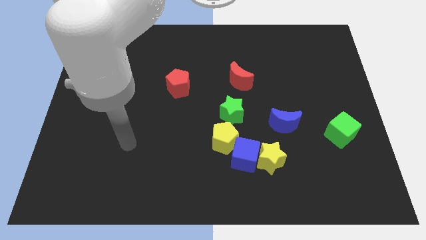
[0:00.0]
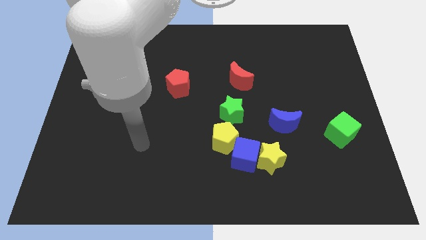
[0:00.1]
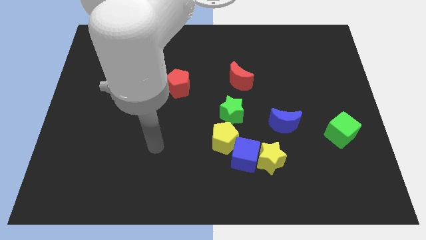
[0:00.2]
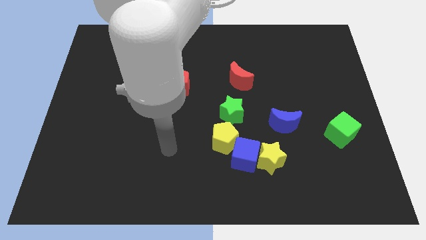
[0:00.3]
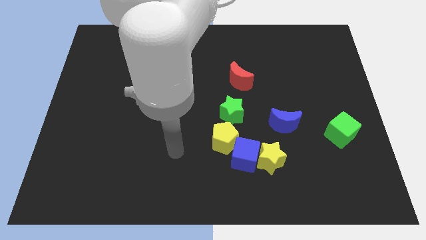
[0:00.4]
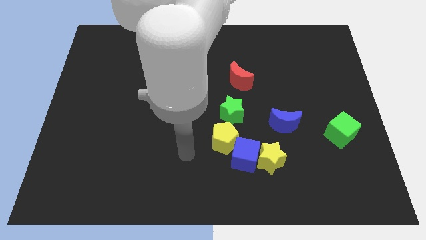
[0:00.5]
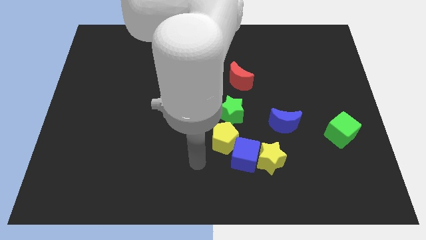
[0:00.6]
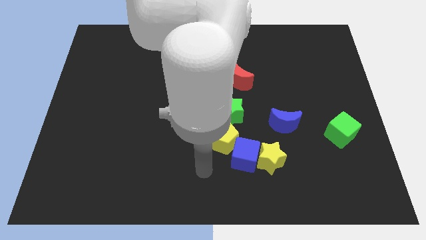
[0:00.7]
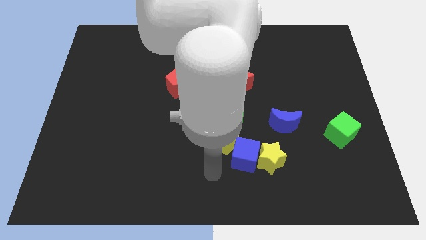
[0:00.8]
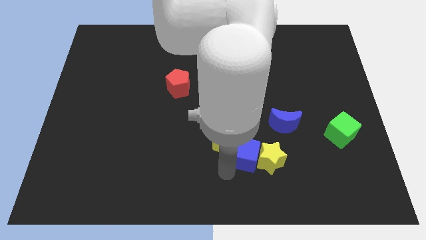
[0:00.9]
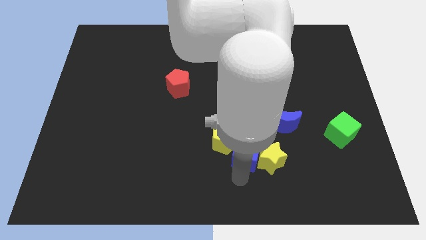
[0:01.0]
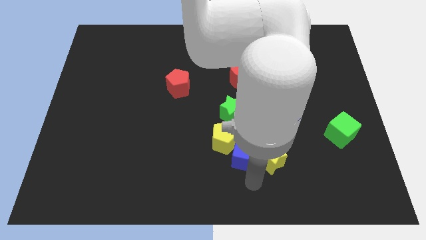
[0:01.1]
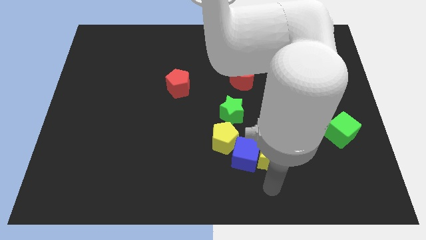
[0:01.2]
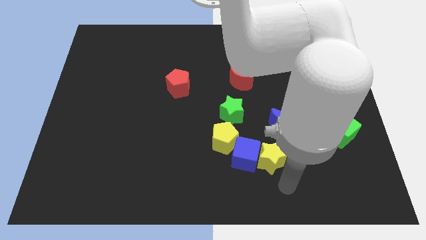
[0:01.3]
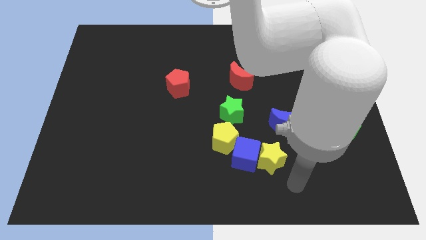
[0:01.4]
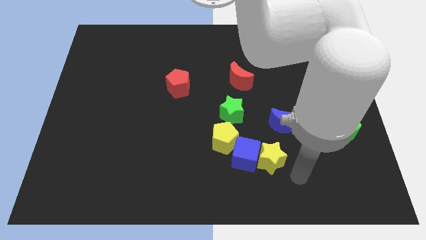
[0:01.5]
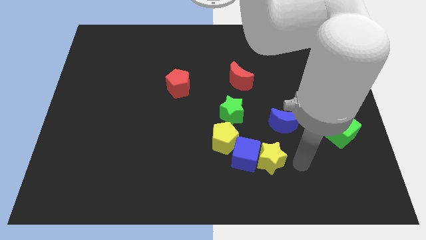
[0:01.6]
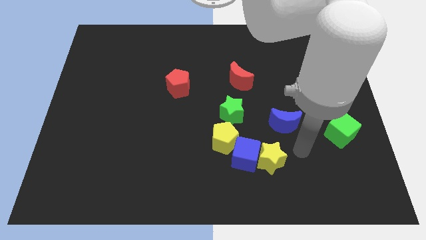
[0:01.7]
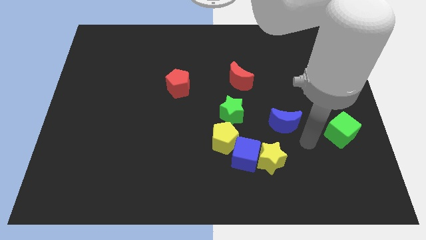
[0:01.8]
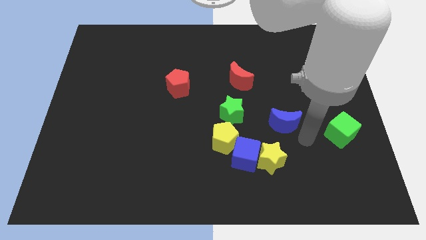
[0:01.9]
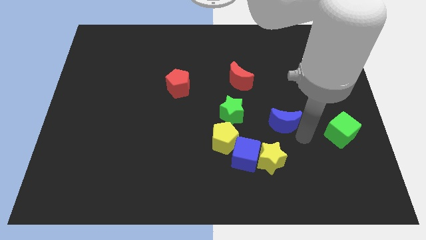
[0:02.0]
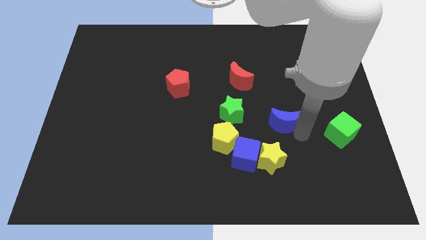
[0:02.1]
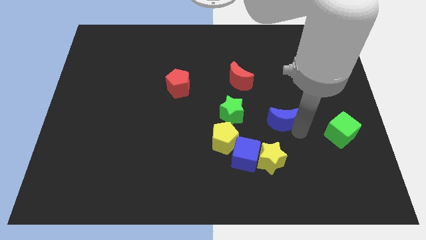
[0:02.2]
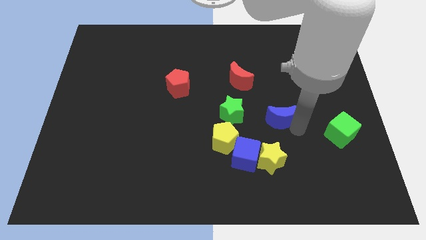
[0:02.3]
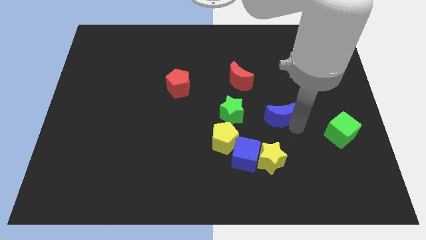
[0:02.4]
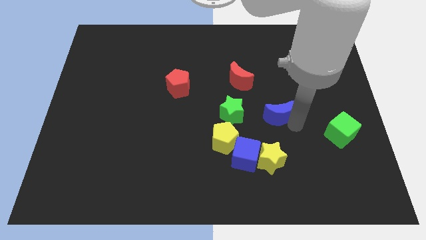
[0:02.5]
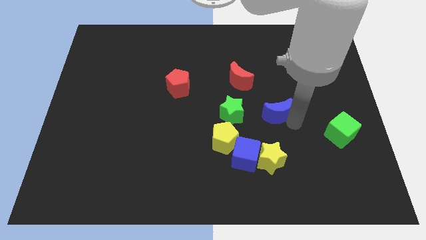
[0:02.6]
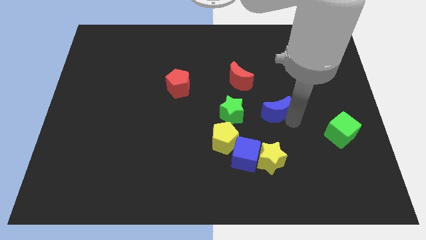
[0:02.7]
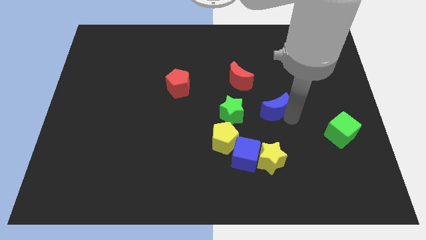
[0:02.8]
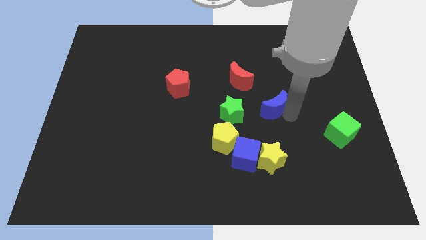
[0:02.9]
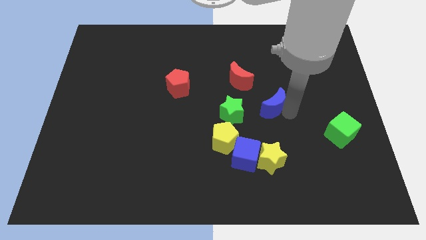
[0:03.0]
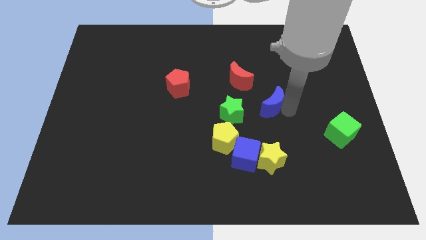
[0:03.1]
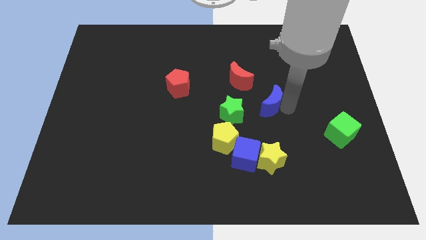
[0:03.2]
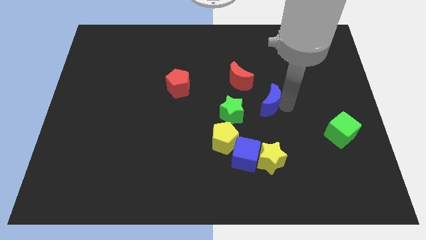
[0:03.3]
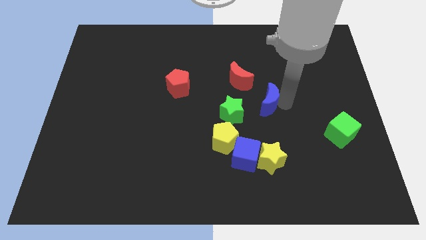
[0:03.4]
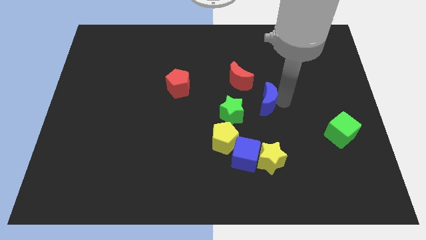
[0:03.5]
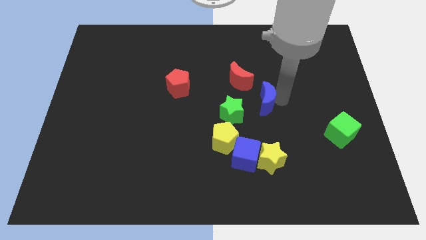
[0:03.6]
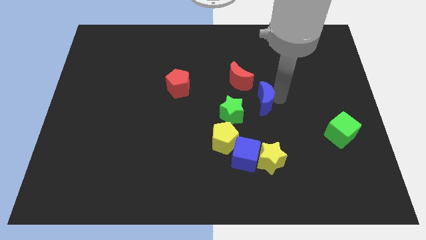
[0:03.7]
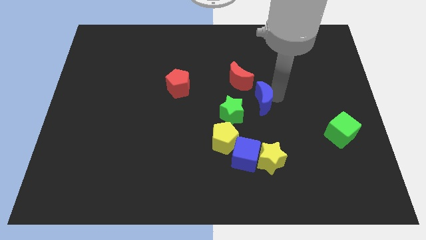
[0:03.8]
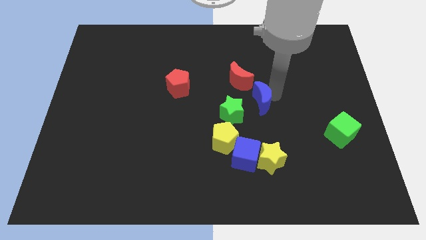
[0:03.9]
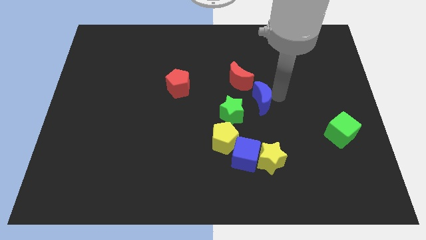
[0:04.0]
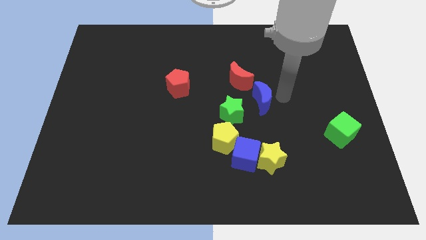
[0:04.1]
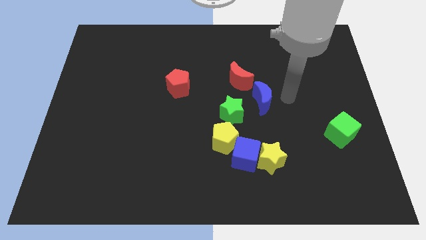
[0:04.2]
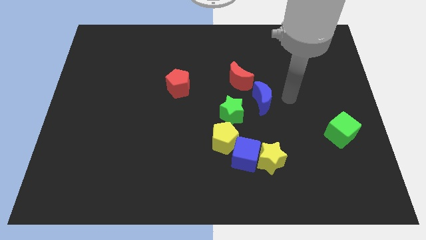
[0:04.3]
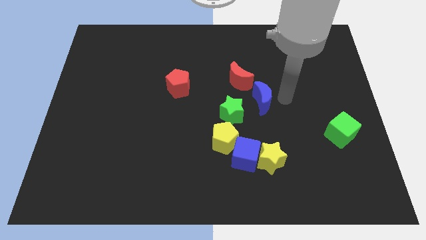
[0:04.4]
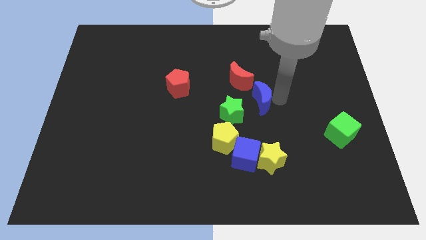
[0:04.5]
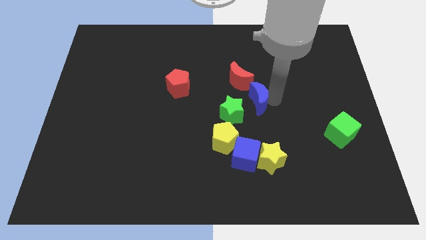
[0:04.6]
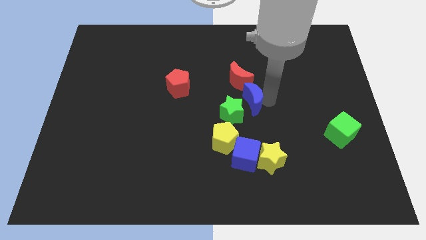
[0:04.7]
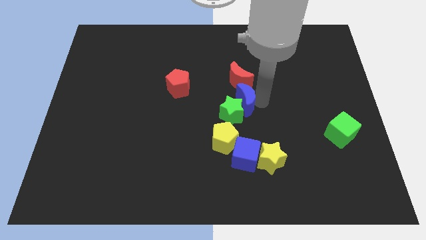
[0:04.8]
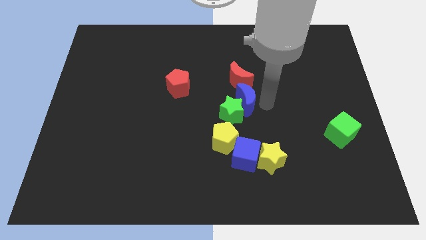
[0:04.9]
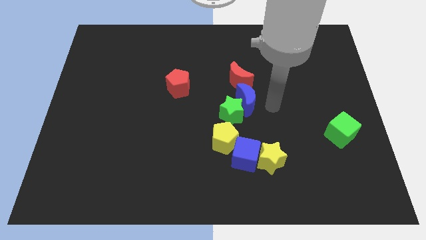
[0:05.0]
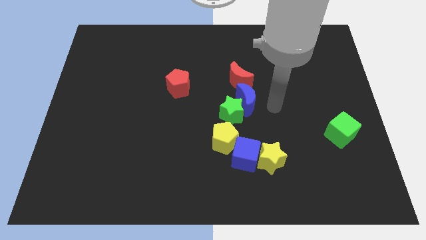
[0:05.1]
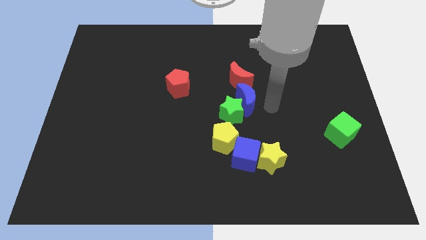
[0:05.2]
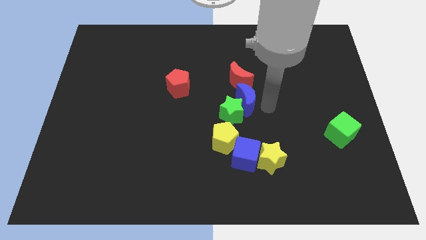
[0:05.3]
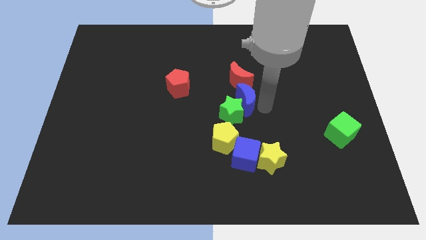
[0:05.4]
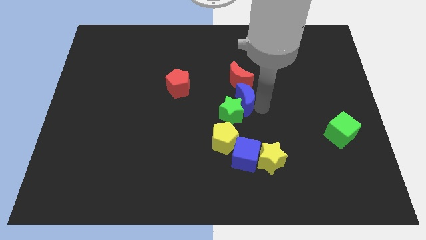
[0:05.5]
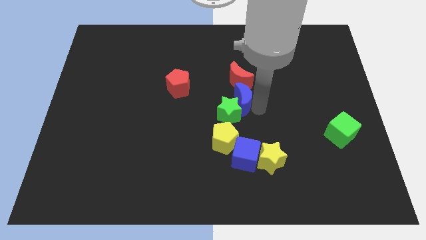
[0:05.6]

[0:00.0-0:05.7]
move the blue moon to the left somewhat

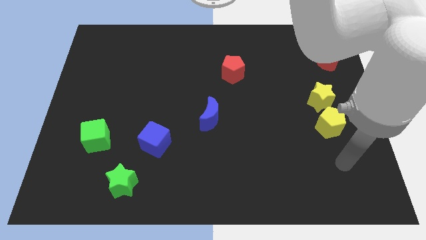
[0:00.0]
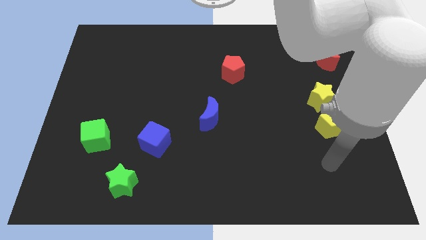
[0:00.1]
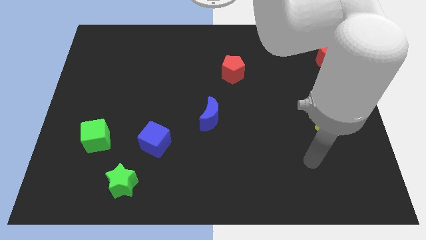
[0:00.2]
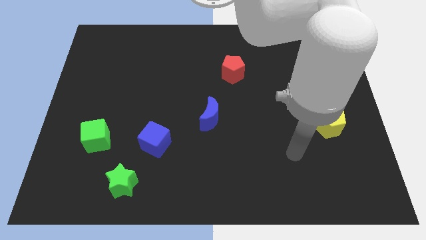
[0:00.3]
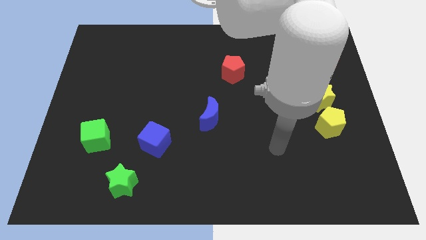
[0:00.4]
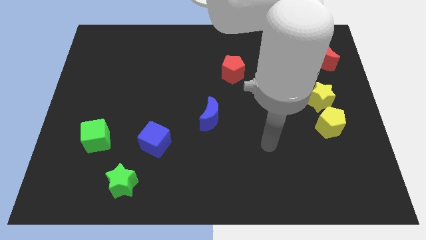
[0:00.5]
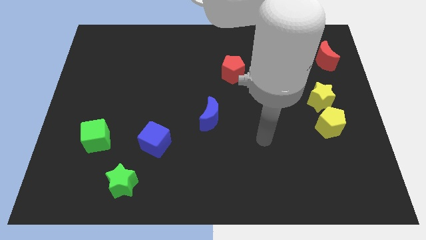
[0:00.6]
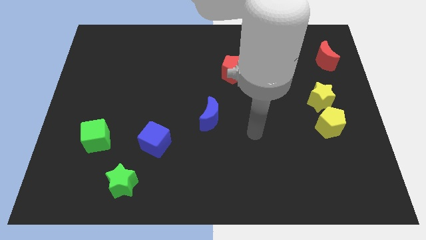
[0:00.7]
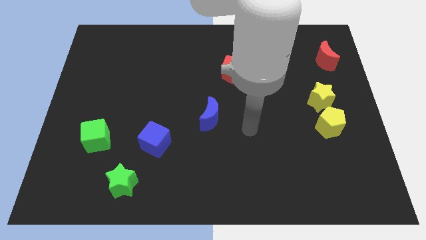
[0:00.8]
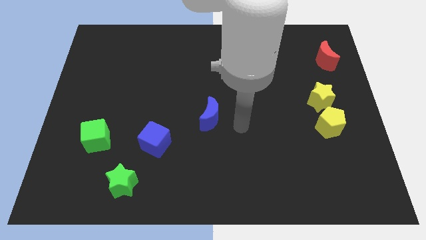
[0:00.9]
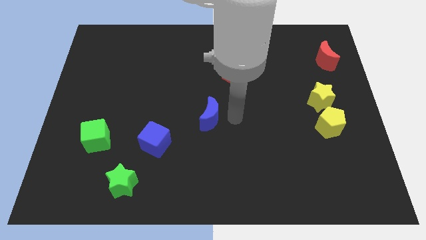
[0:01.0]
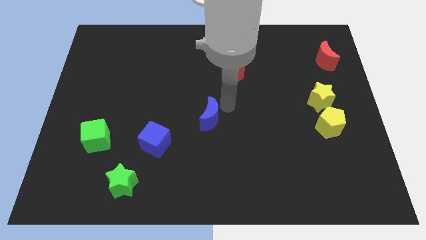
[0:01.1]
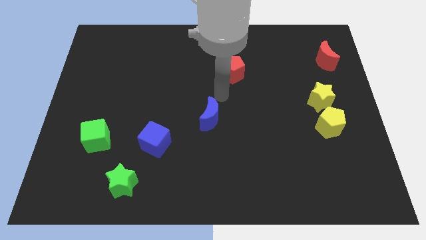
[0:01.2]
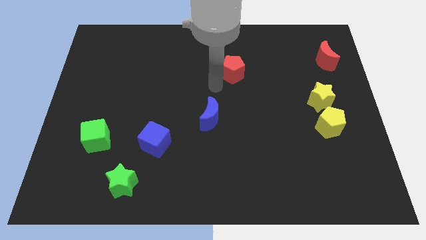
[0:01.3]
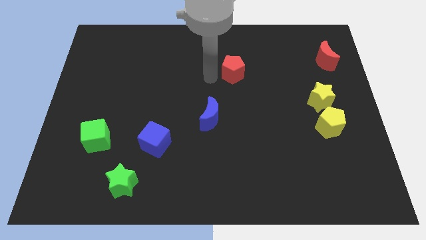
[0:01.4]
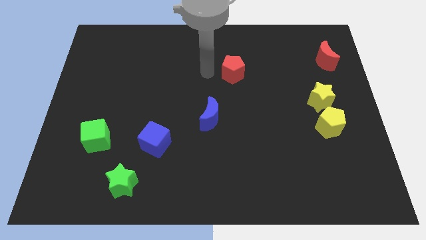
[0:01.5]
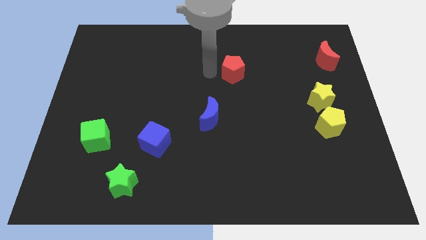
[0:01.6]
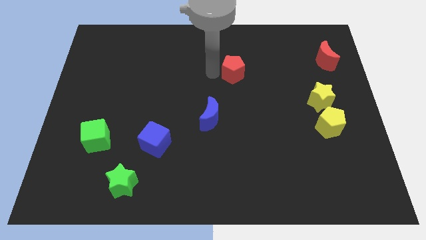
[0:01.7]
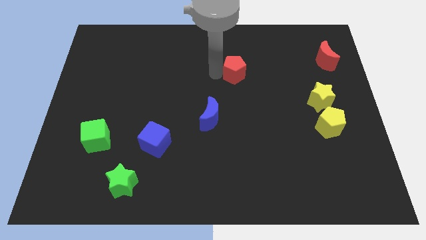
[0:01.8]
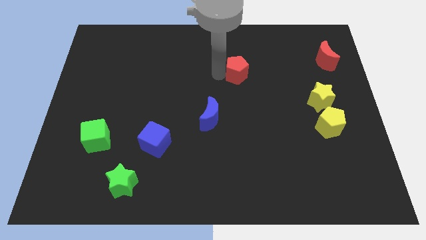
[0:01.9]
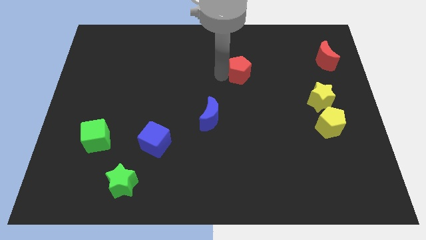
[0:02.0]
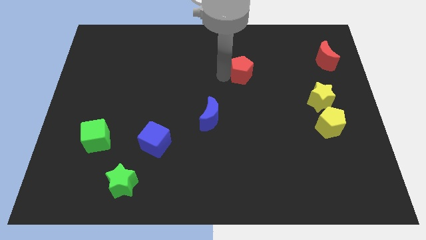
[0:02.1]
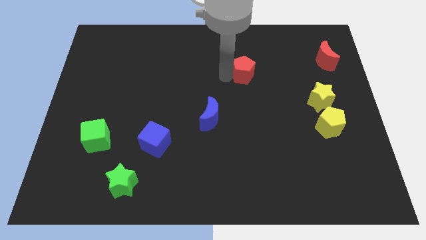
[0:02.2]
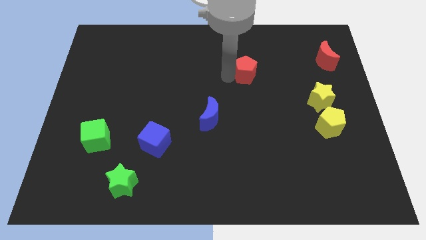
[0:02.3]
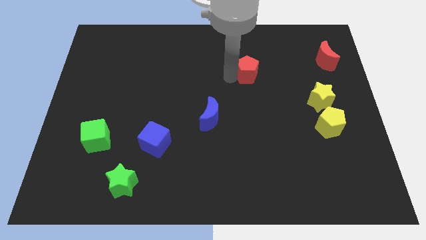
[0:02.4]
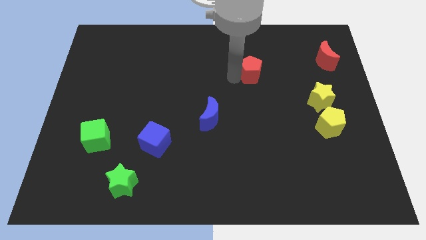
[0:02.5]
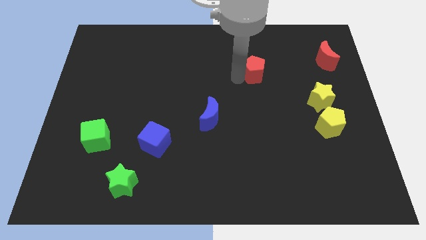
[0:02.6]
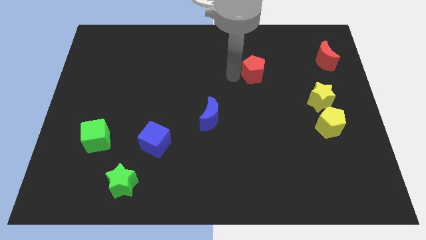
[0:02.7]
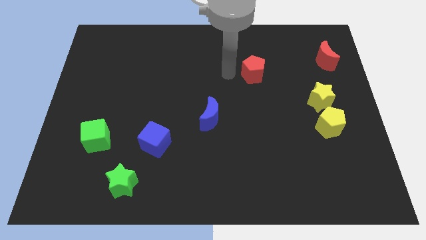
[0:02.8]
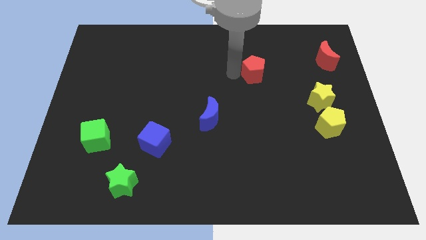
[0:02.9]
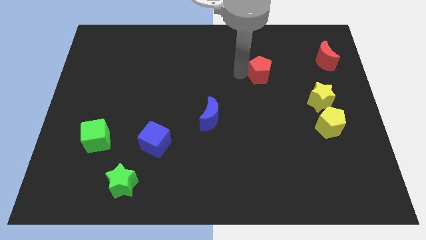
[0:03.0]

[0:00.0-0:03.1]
move the red pentagon right a little
